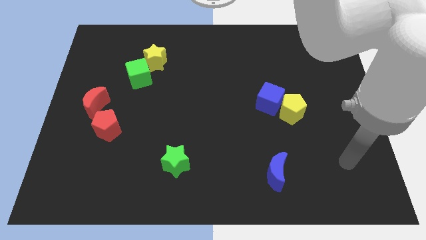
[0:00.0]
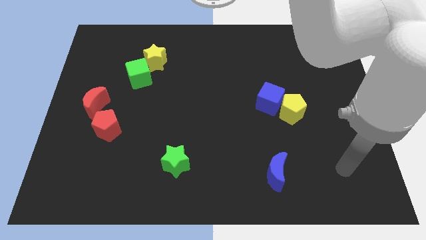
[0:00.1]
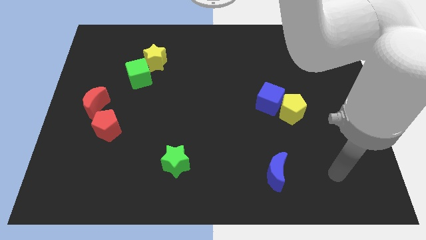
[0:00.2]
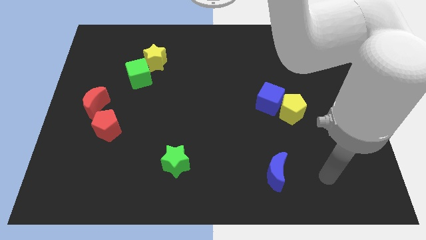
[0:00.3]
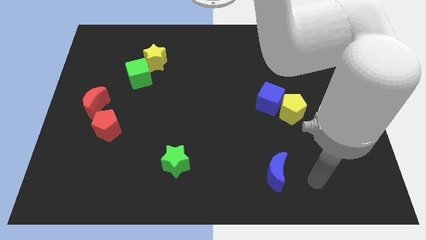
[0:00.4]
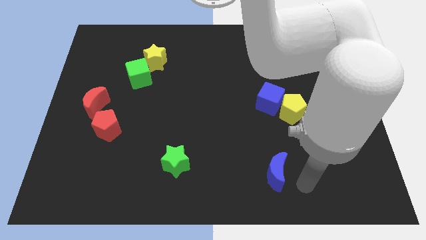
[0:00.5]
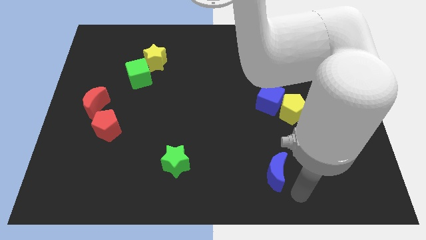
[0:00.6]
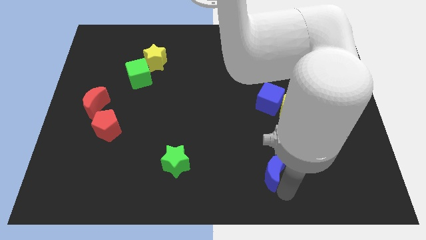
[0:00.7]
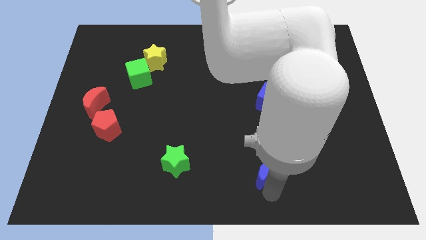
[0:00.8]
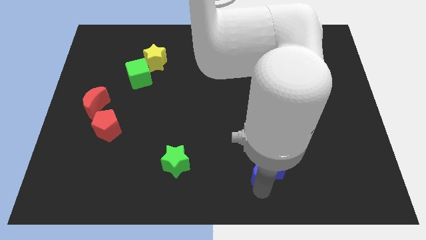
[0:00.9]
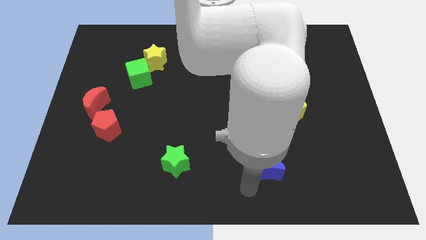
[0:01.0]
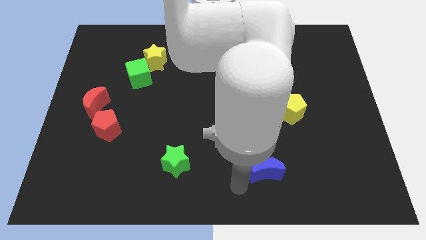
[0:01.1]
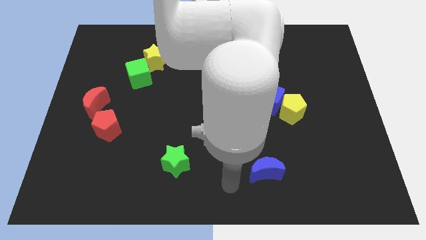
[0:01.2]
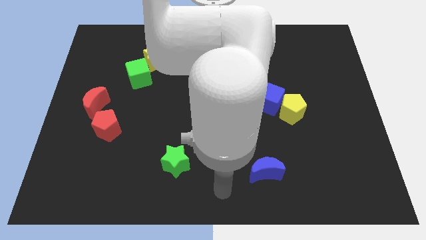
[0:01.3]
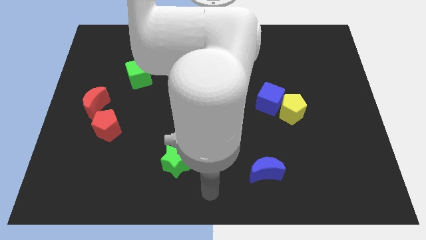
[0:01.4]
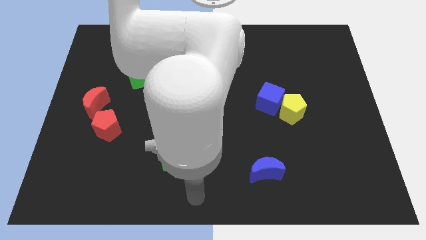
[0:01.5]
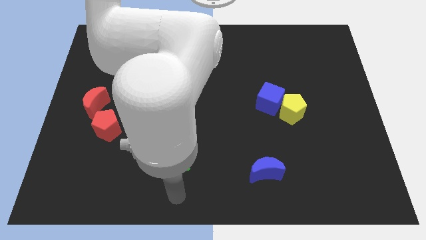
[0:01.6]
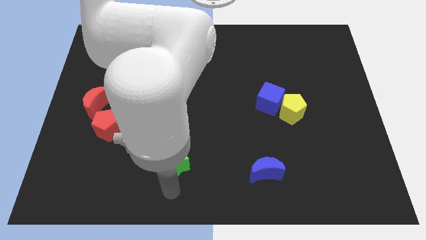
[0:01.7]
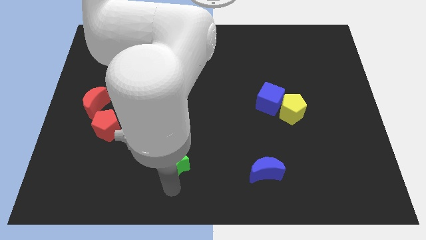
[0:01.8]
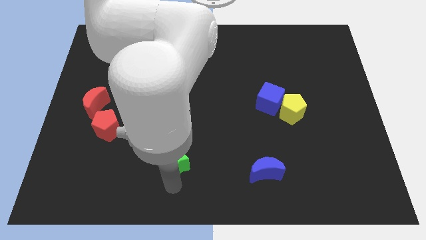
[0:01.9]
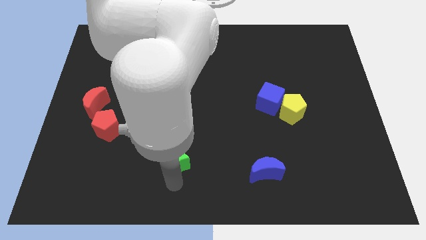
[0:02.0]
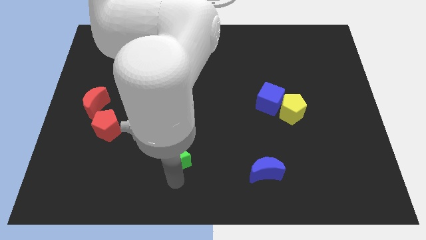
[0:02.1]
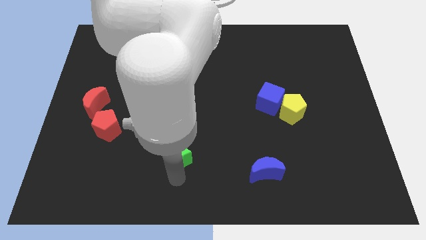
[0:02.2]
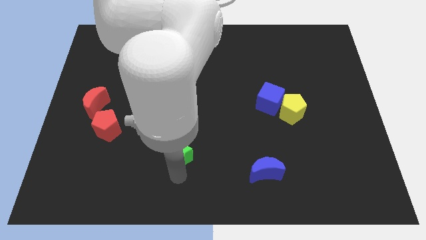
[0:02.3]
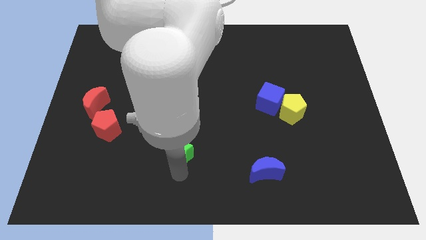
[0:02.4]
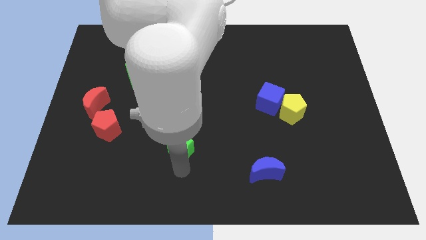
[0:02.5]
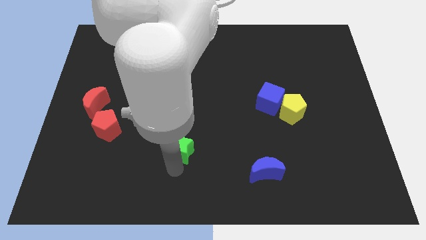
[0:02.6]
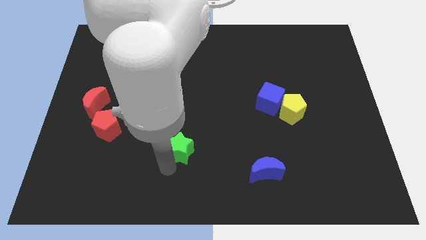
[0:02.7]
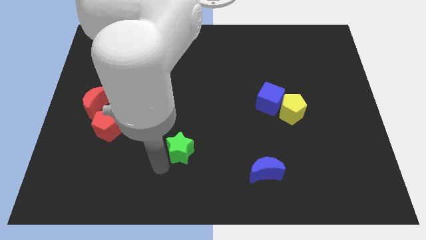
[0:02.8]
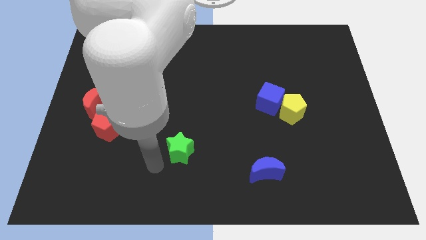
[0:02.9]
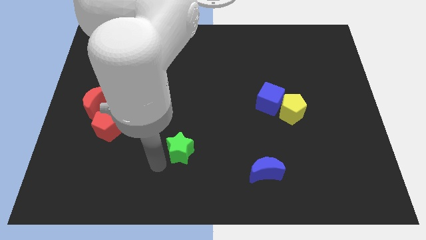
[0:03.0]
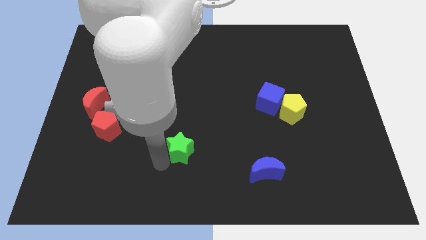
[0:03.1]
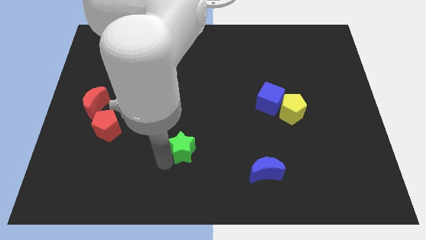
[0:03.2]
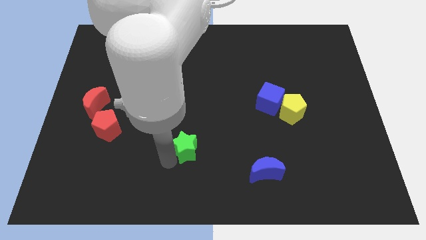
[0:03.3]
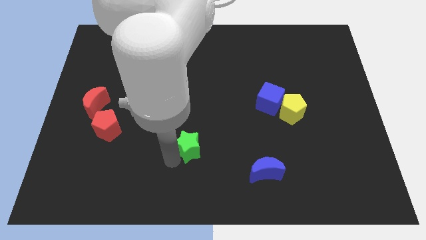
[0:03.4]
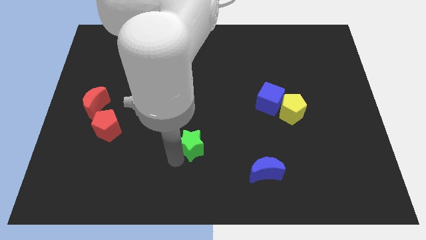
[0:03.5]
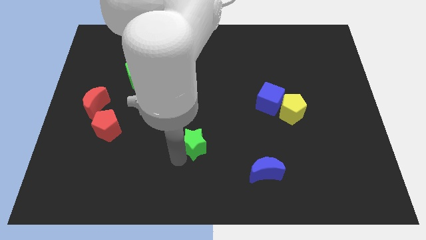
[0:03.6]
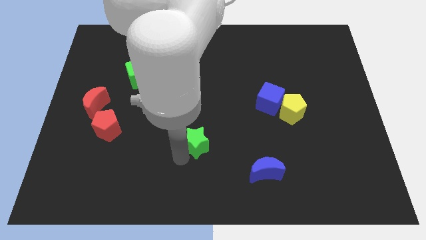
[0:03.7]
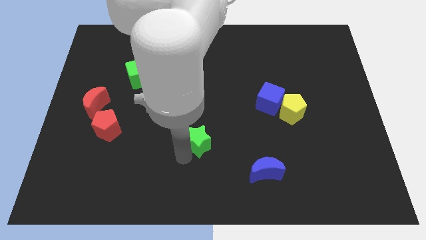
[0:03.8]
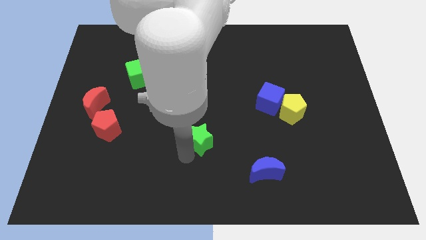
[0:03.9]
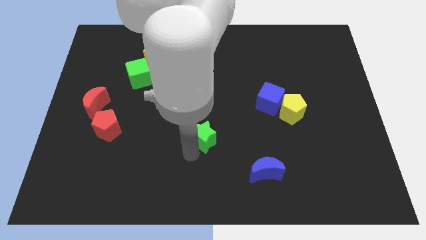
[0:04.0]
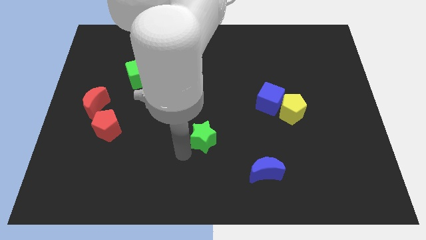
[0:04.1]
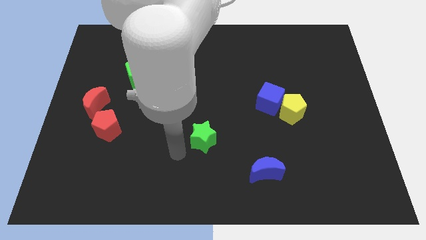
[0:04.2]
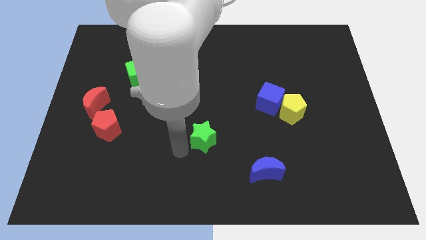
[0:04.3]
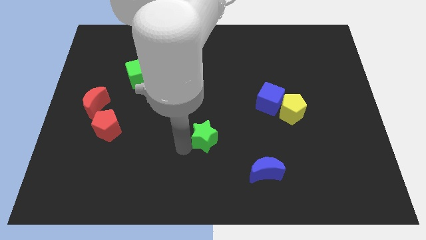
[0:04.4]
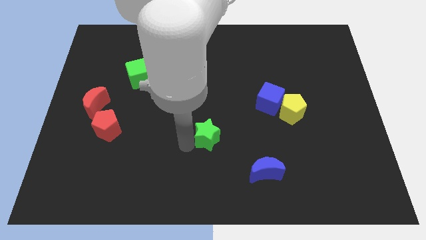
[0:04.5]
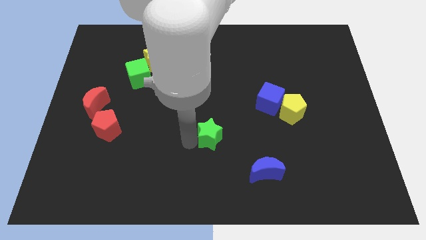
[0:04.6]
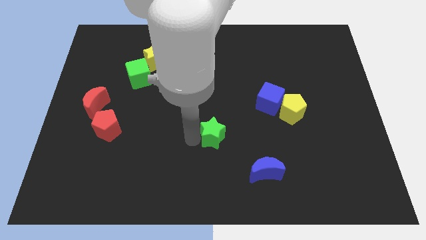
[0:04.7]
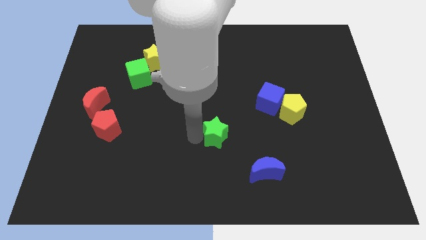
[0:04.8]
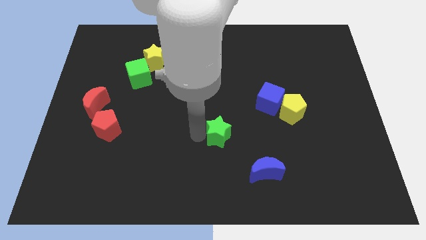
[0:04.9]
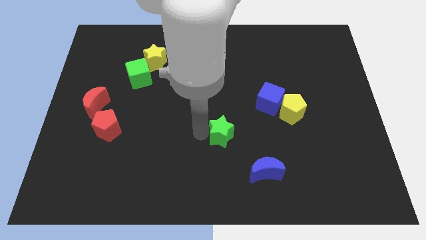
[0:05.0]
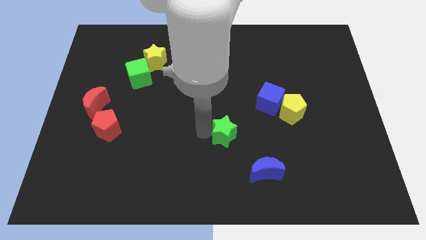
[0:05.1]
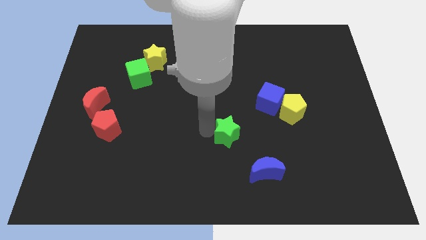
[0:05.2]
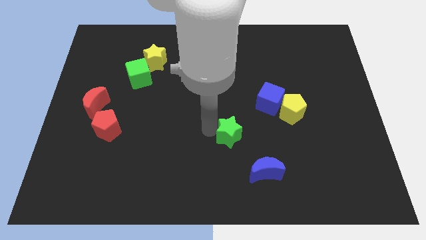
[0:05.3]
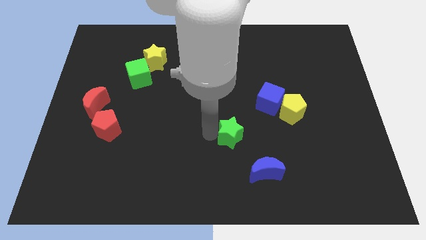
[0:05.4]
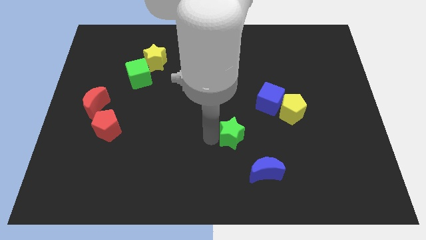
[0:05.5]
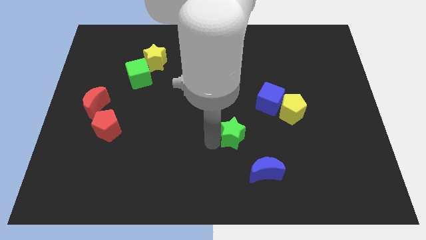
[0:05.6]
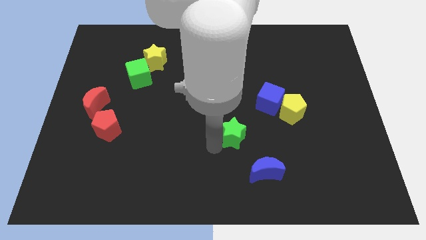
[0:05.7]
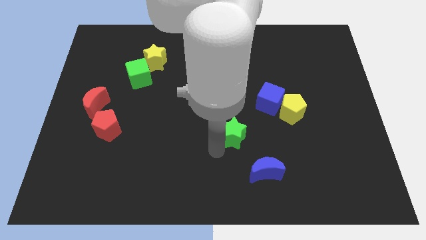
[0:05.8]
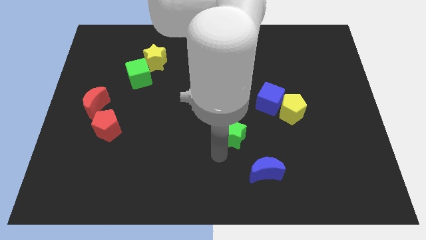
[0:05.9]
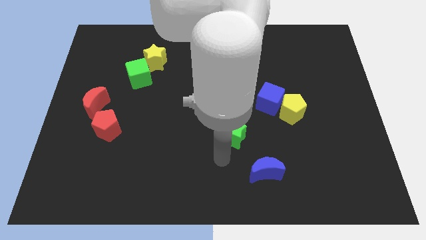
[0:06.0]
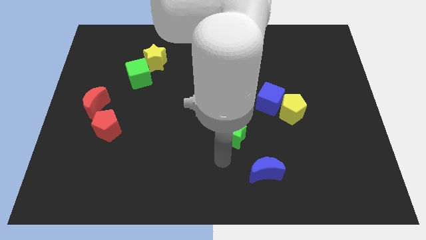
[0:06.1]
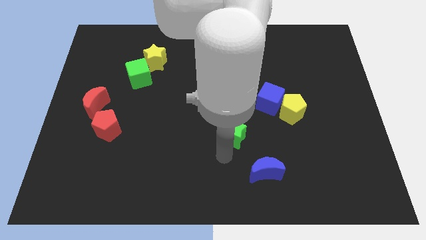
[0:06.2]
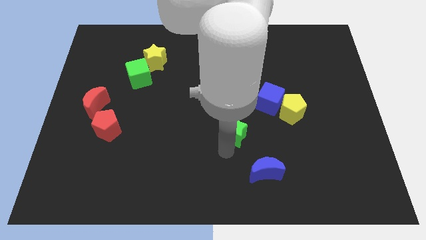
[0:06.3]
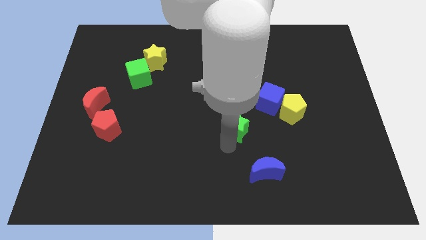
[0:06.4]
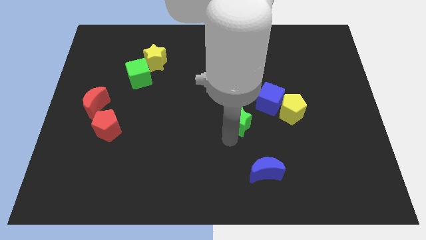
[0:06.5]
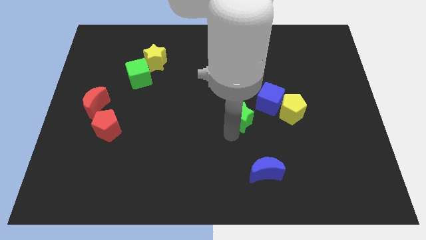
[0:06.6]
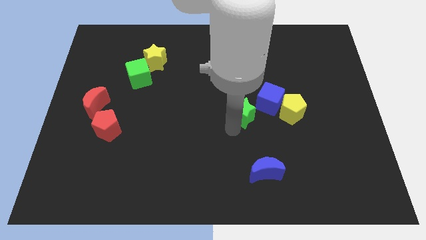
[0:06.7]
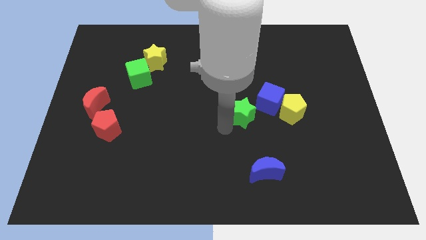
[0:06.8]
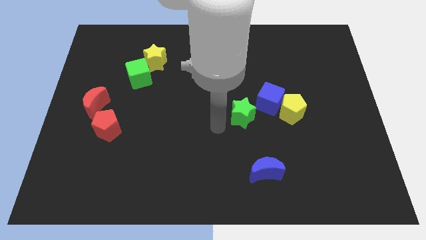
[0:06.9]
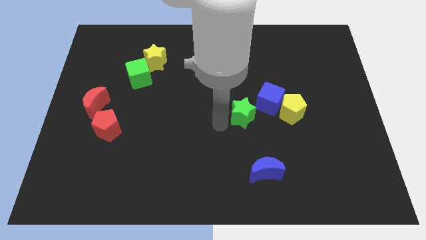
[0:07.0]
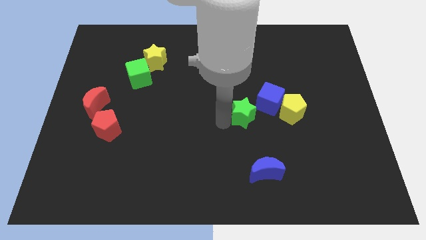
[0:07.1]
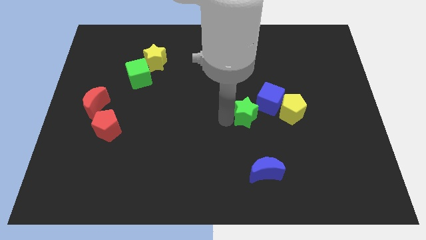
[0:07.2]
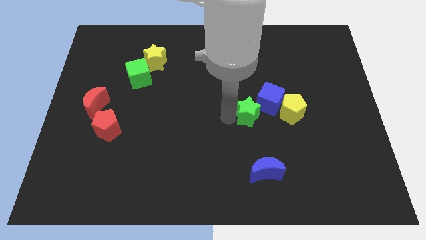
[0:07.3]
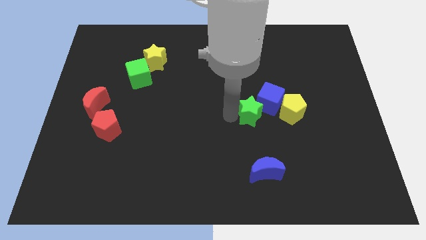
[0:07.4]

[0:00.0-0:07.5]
slide the green star next to the blue cube
